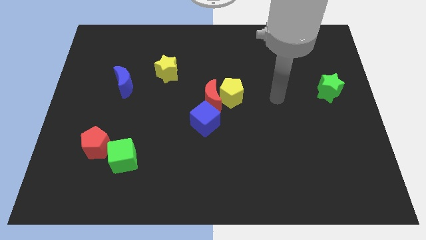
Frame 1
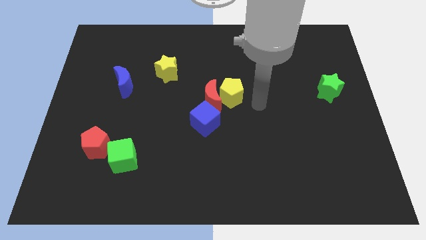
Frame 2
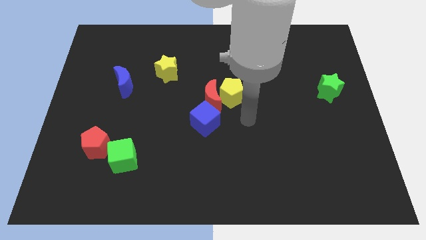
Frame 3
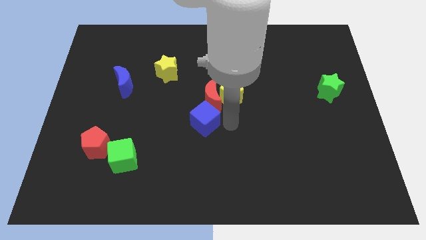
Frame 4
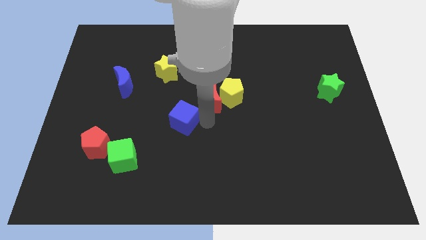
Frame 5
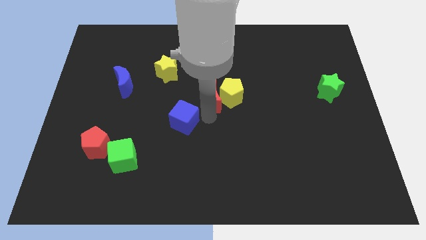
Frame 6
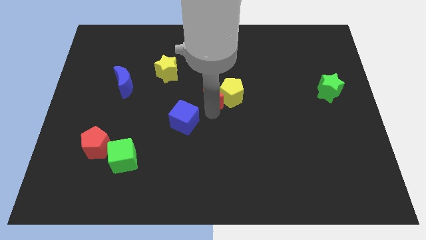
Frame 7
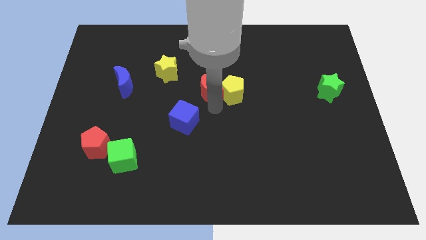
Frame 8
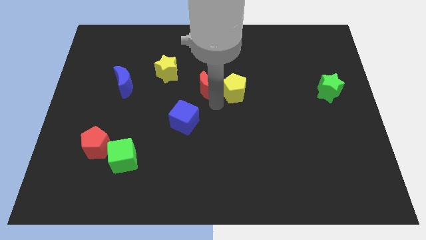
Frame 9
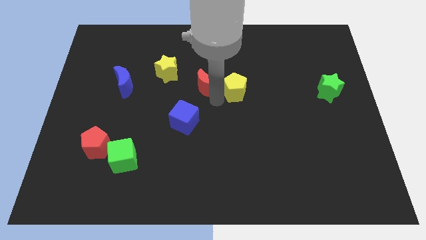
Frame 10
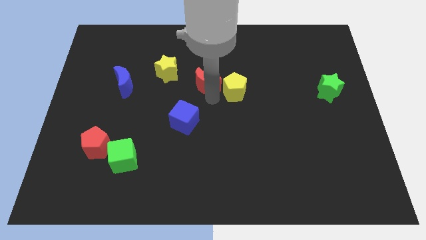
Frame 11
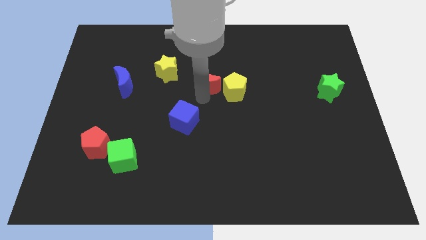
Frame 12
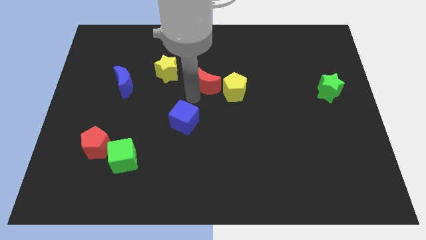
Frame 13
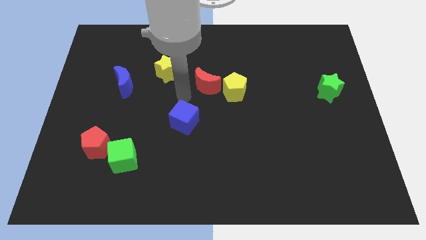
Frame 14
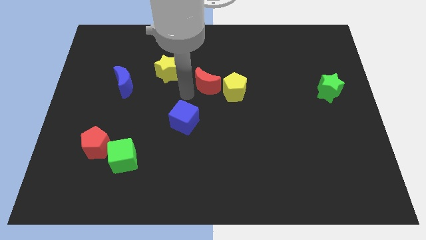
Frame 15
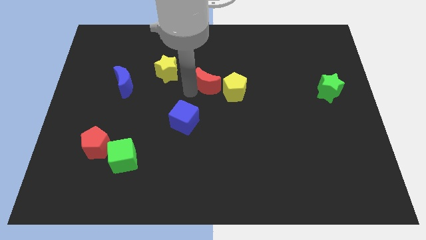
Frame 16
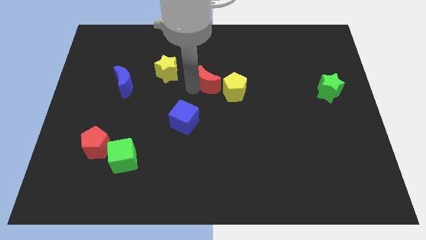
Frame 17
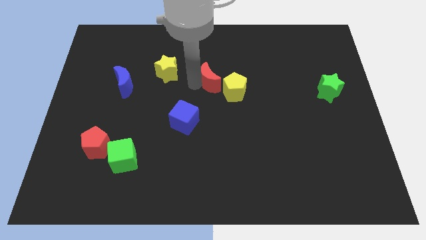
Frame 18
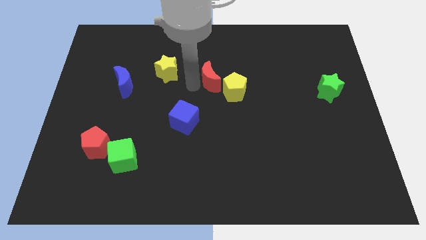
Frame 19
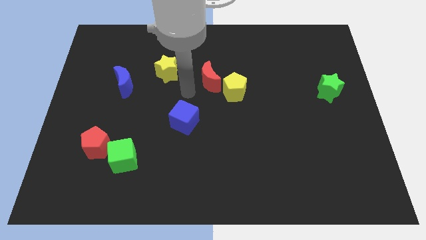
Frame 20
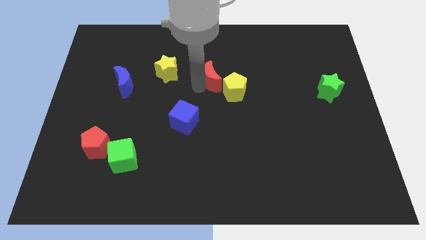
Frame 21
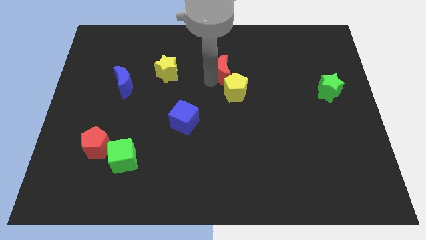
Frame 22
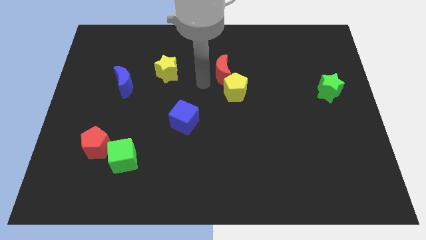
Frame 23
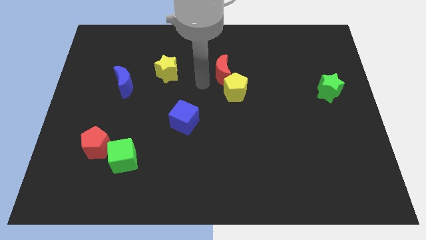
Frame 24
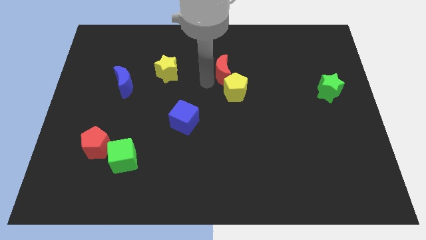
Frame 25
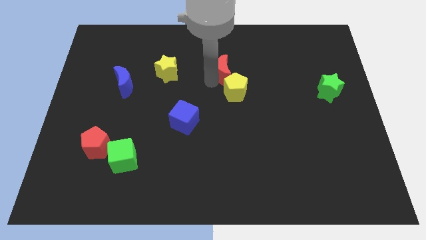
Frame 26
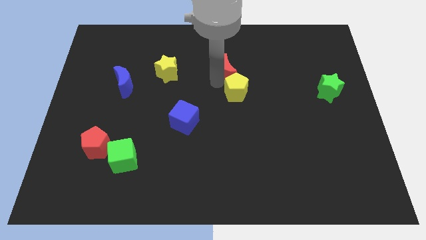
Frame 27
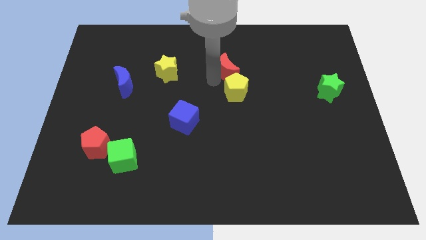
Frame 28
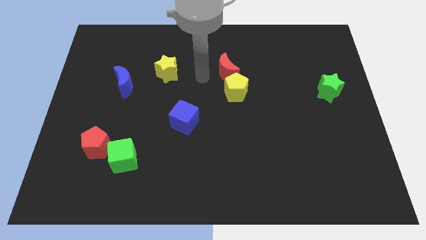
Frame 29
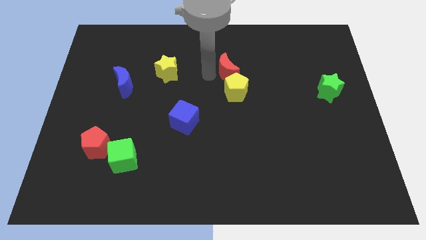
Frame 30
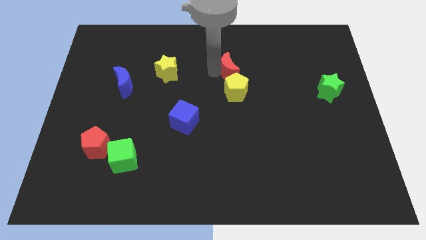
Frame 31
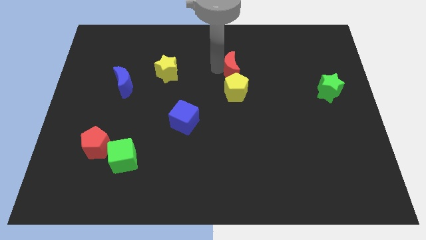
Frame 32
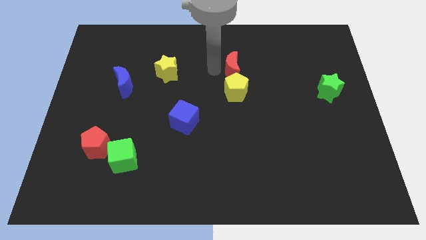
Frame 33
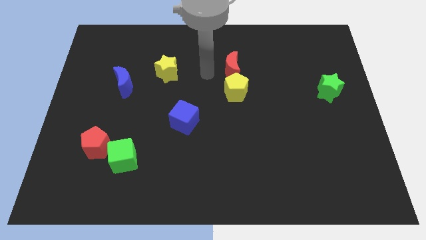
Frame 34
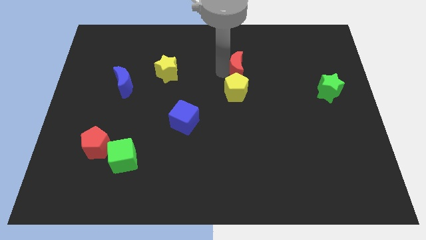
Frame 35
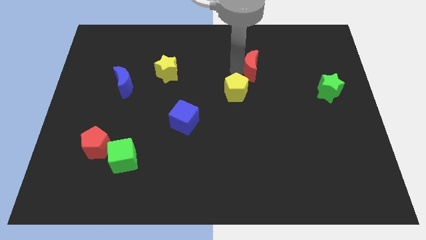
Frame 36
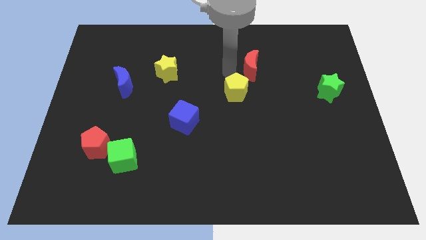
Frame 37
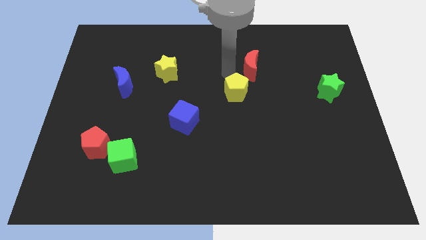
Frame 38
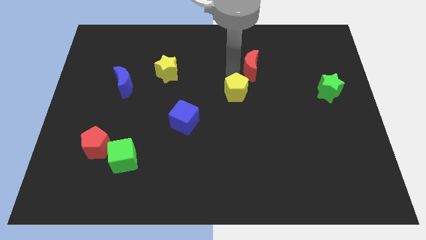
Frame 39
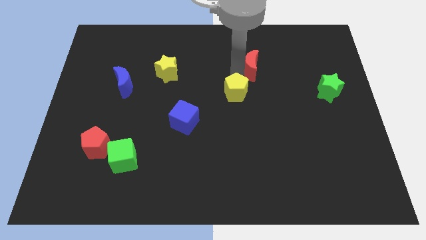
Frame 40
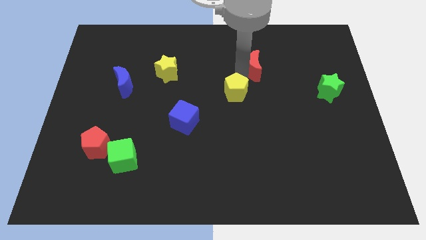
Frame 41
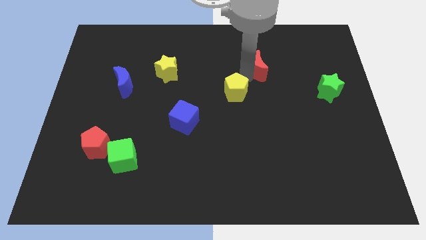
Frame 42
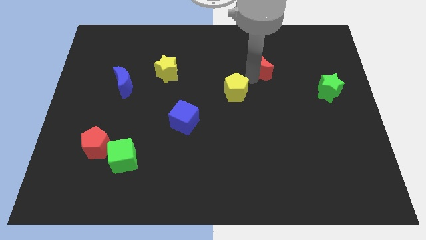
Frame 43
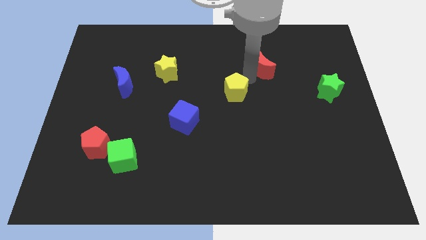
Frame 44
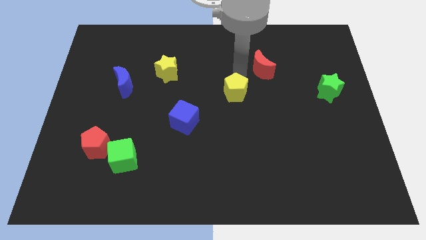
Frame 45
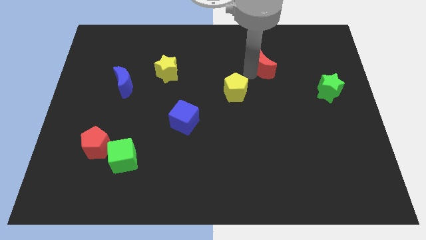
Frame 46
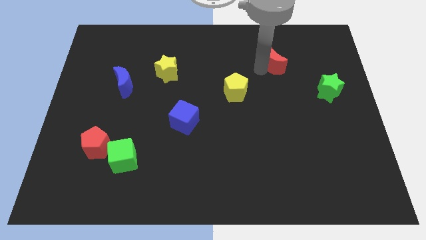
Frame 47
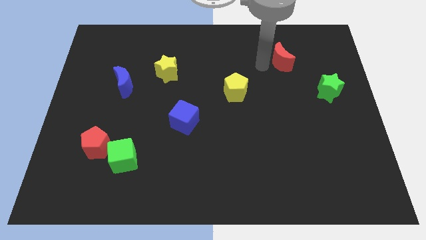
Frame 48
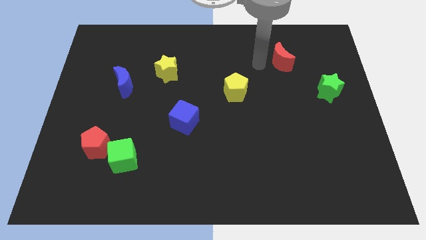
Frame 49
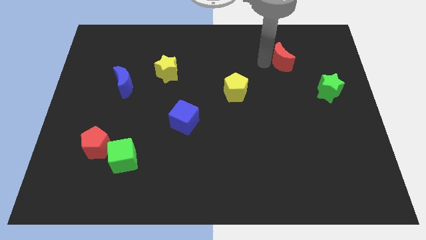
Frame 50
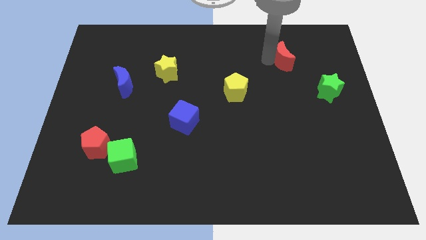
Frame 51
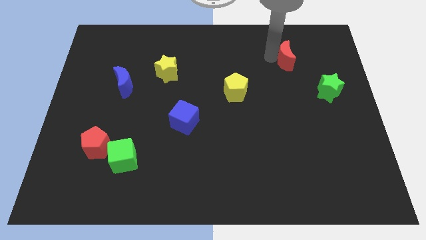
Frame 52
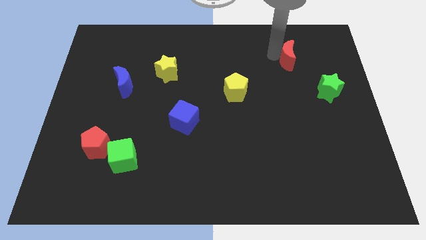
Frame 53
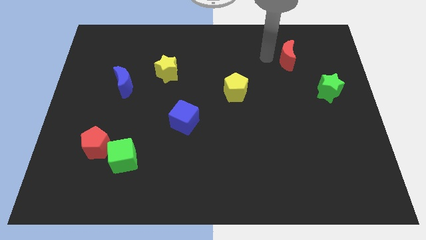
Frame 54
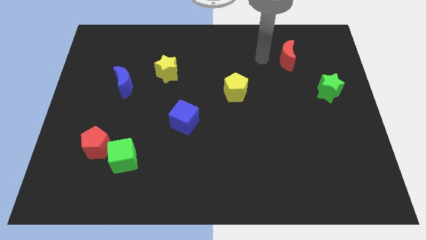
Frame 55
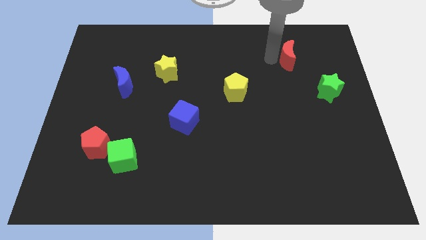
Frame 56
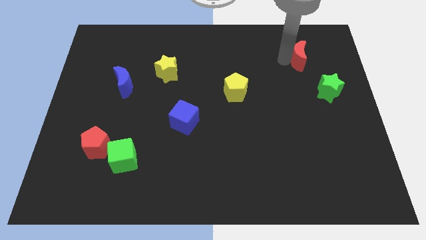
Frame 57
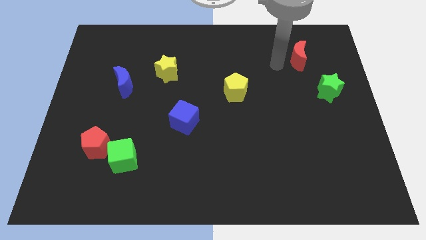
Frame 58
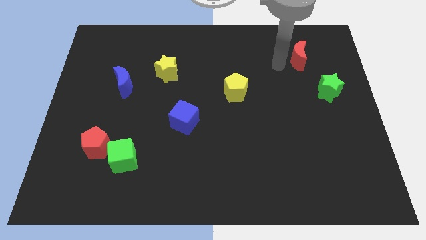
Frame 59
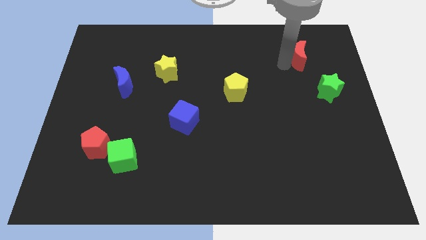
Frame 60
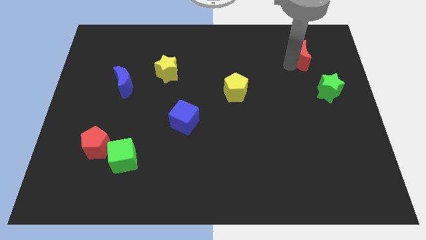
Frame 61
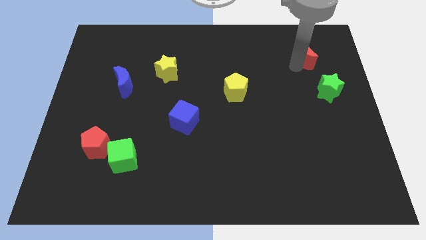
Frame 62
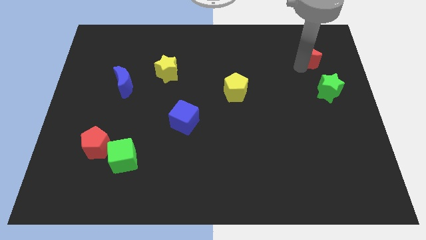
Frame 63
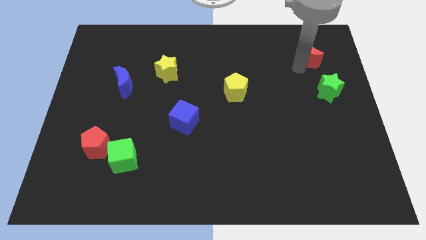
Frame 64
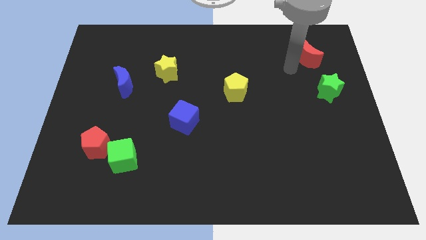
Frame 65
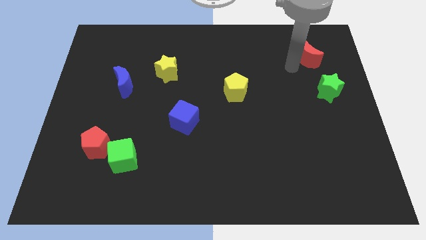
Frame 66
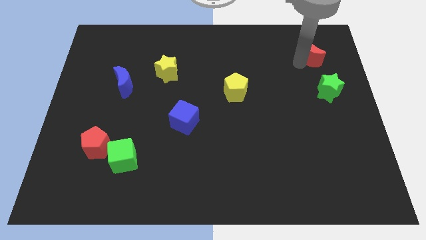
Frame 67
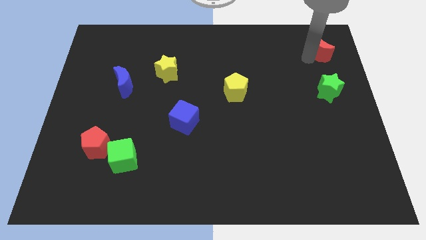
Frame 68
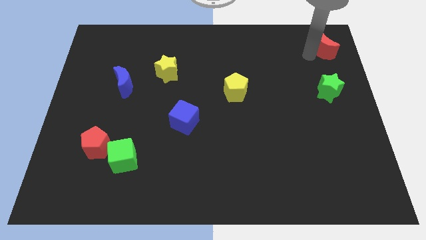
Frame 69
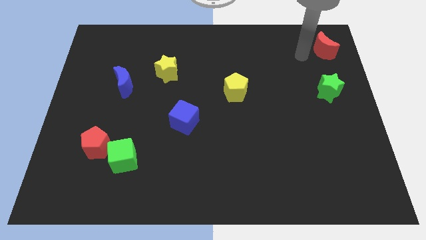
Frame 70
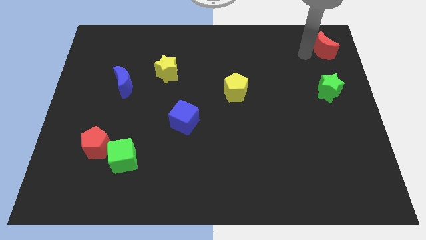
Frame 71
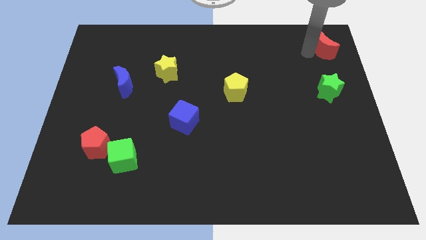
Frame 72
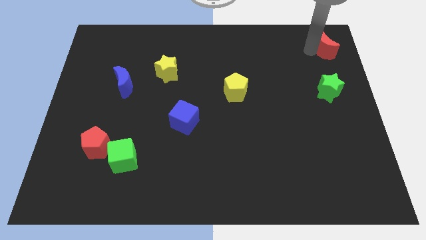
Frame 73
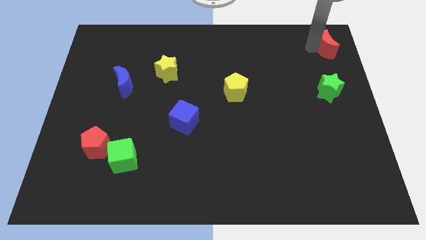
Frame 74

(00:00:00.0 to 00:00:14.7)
push the red moon to the top right
